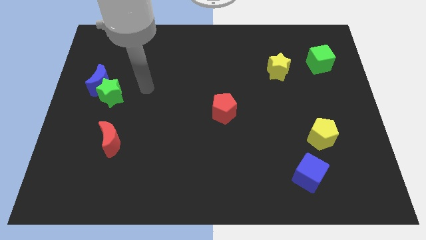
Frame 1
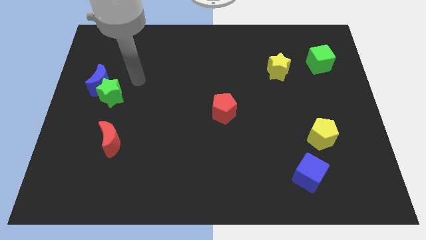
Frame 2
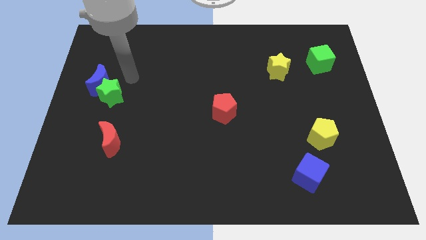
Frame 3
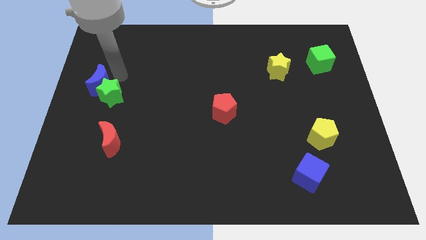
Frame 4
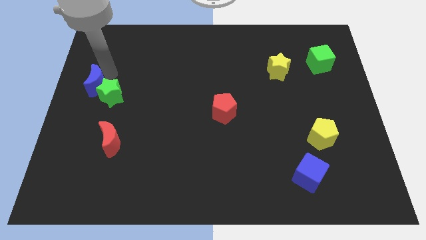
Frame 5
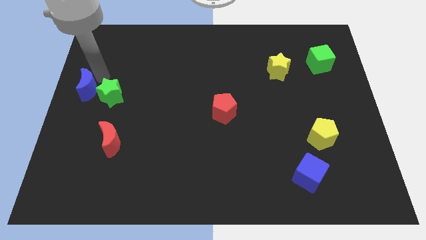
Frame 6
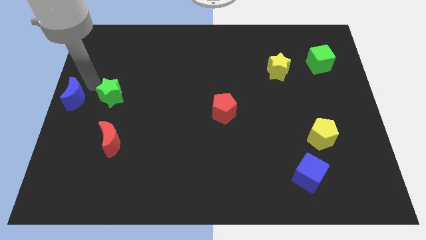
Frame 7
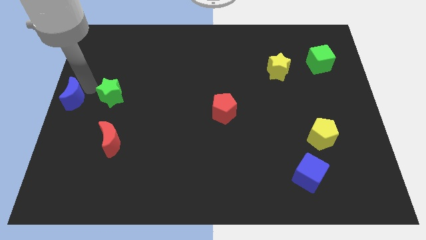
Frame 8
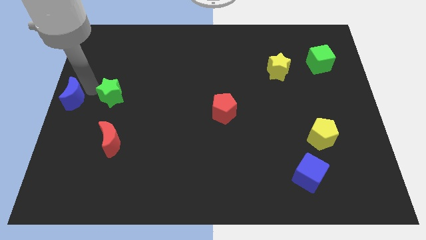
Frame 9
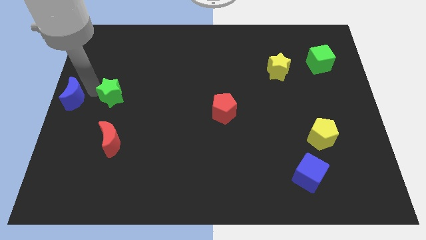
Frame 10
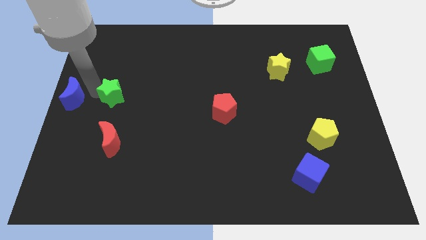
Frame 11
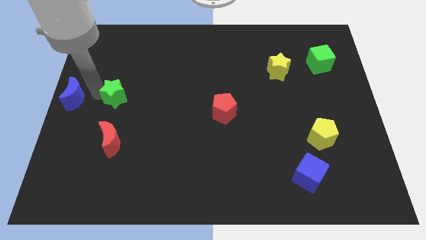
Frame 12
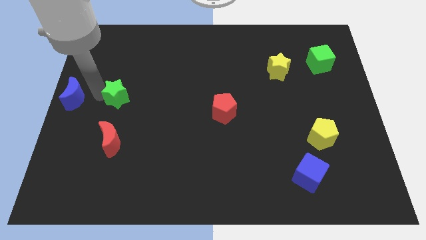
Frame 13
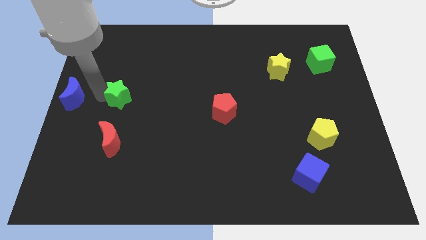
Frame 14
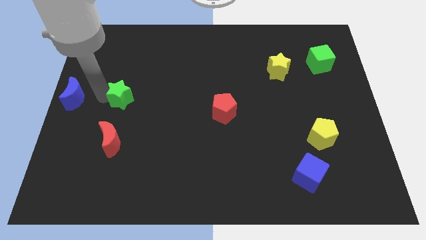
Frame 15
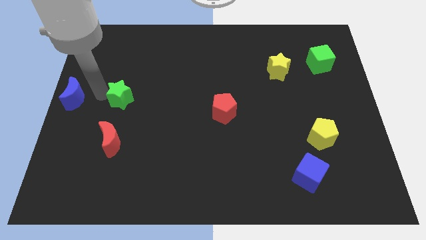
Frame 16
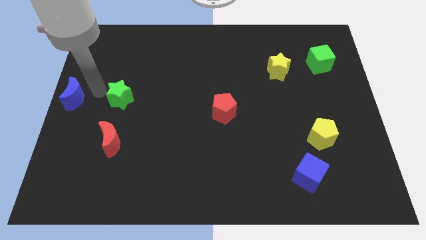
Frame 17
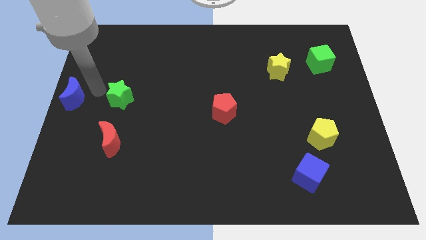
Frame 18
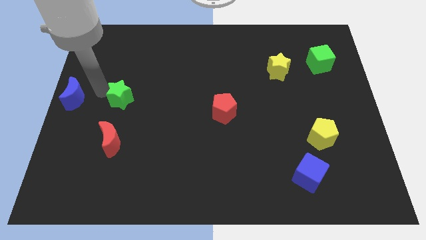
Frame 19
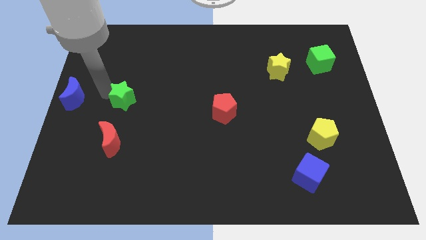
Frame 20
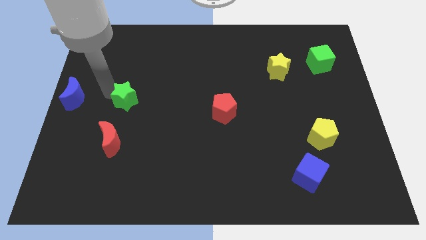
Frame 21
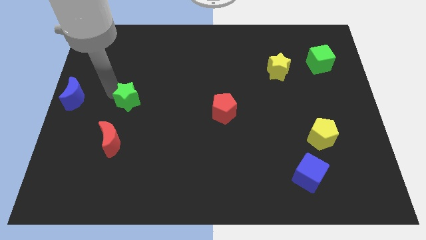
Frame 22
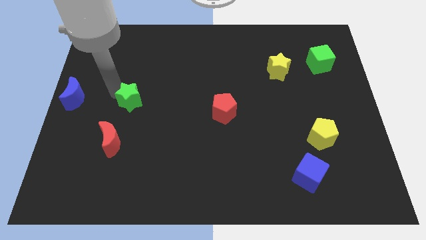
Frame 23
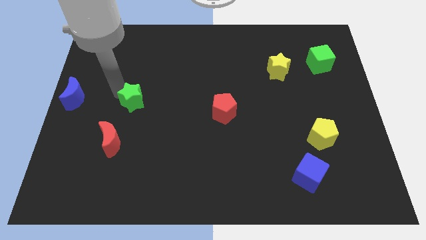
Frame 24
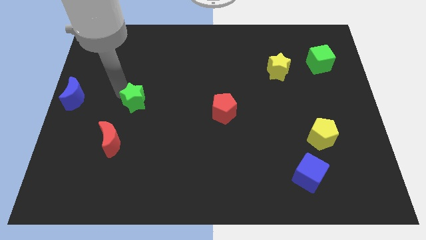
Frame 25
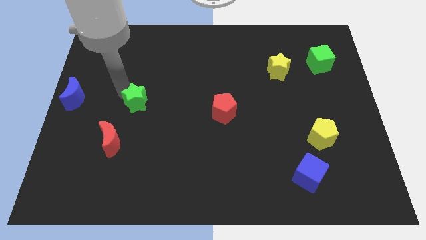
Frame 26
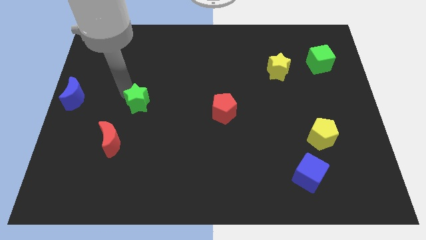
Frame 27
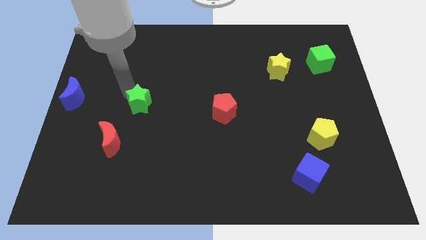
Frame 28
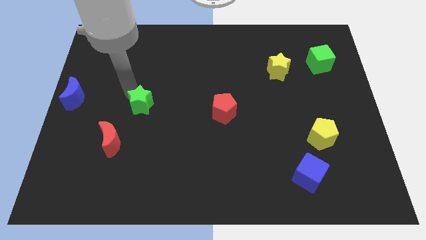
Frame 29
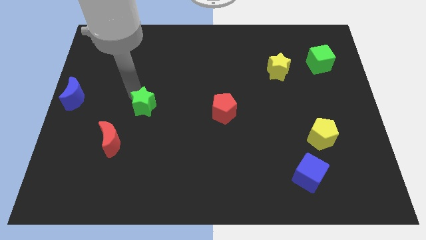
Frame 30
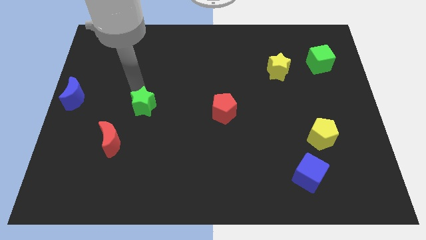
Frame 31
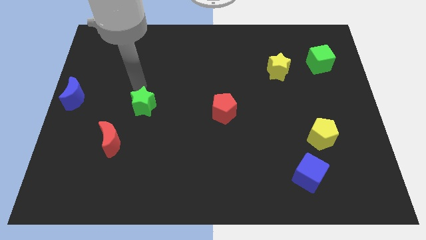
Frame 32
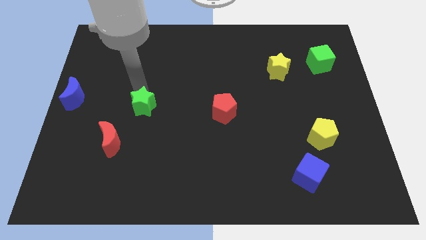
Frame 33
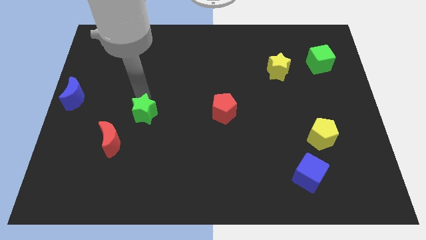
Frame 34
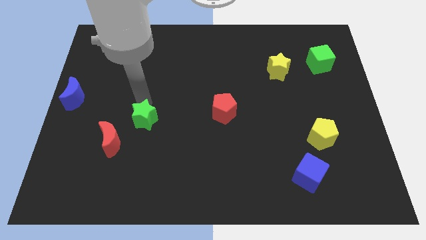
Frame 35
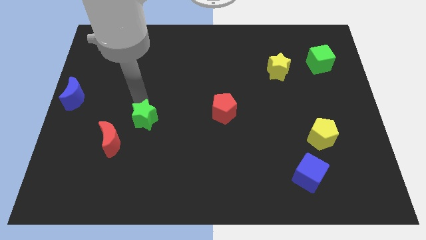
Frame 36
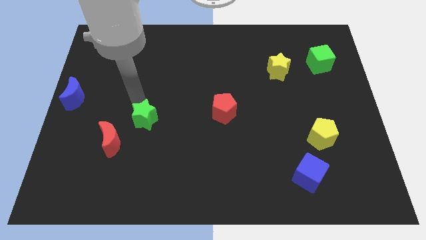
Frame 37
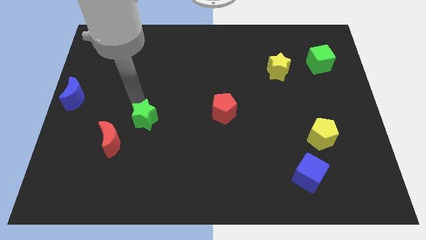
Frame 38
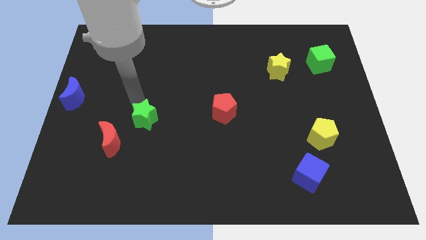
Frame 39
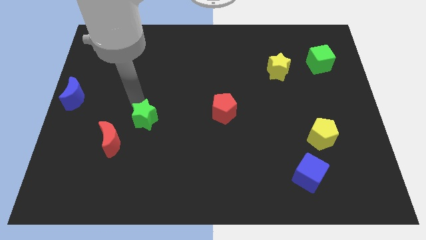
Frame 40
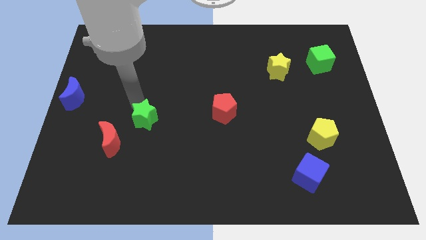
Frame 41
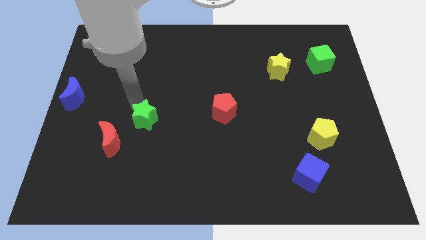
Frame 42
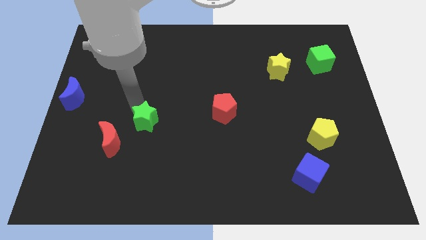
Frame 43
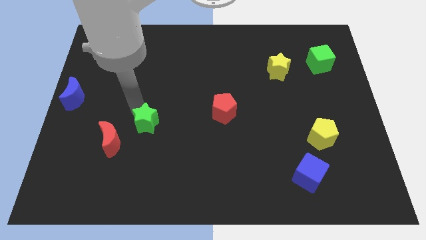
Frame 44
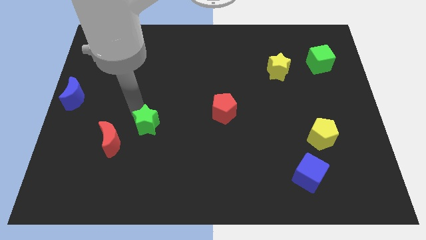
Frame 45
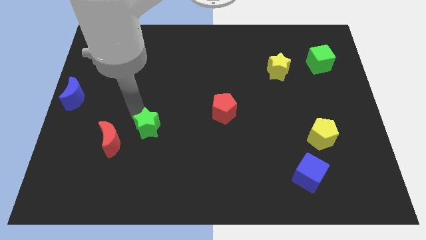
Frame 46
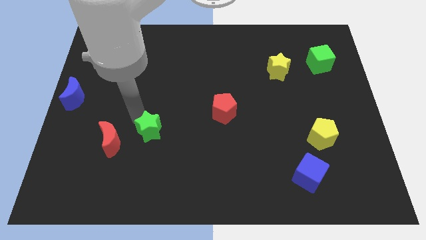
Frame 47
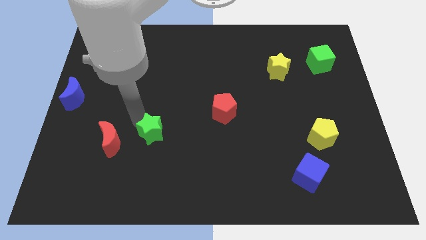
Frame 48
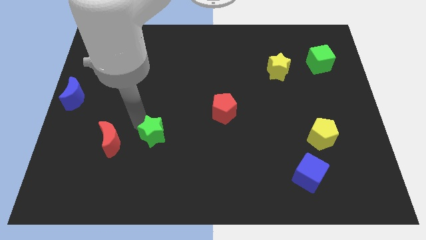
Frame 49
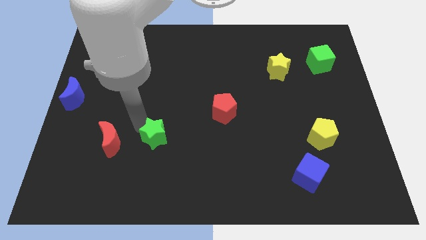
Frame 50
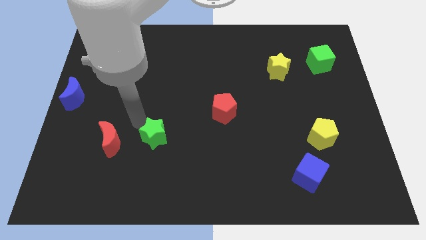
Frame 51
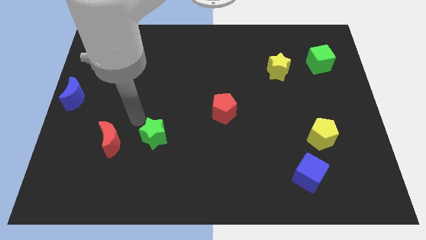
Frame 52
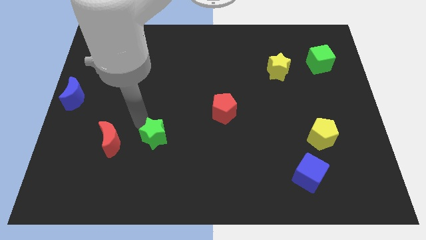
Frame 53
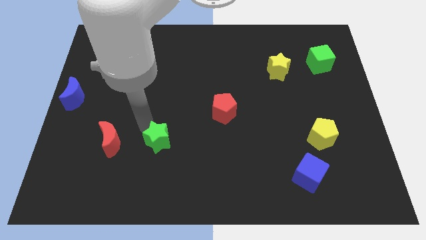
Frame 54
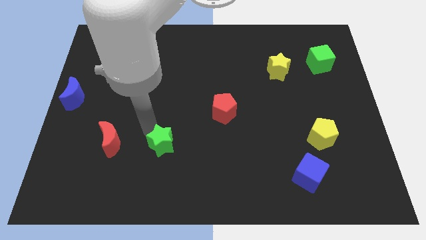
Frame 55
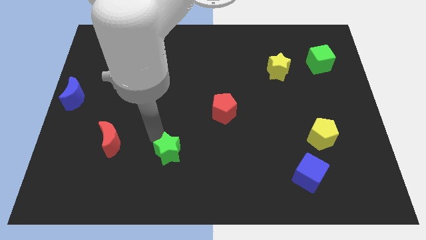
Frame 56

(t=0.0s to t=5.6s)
move the green star down and to the right

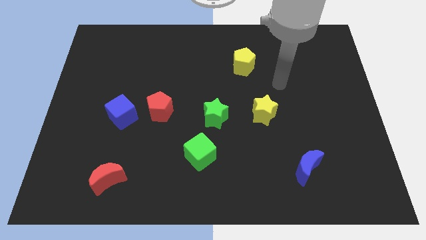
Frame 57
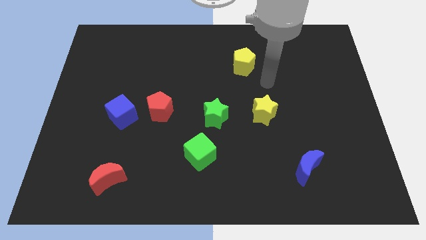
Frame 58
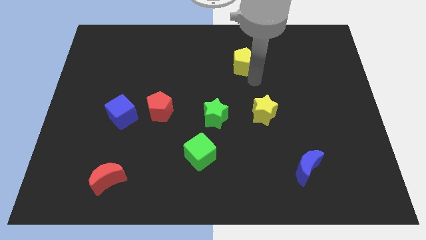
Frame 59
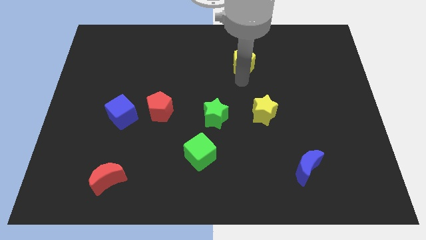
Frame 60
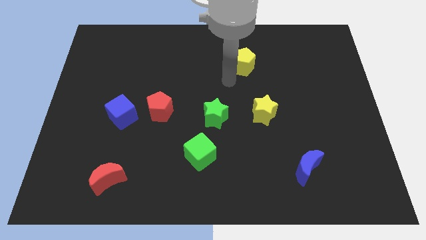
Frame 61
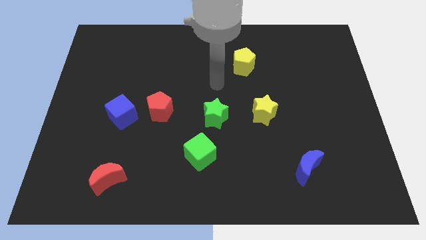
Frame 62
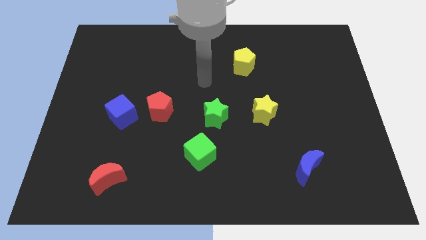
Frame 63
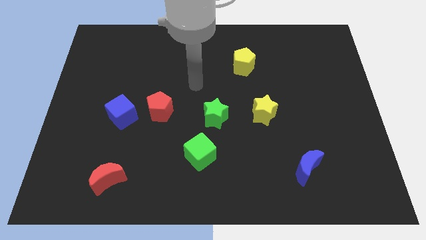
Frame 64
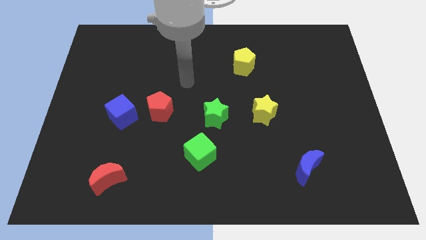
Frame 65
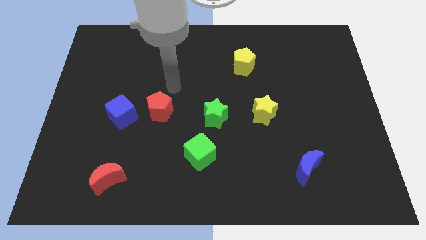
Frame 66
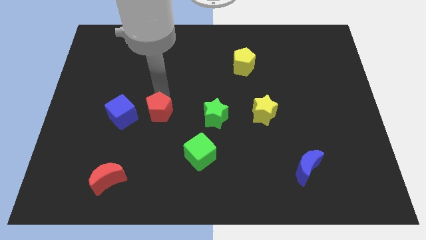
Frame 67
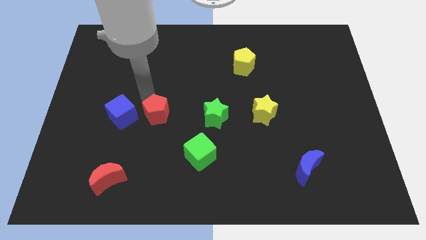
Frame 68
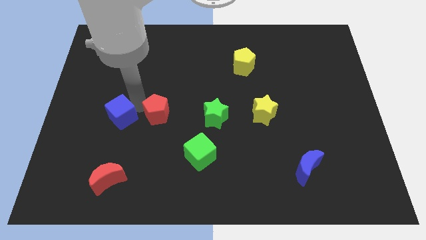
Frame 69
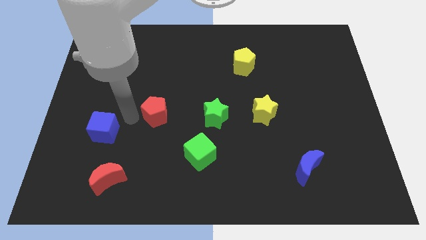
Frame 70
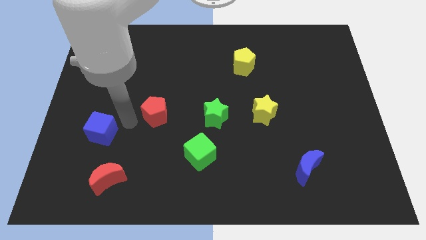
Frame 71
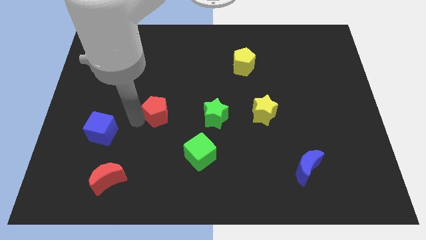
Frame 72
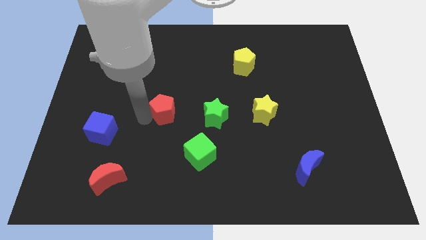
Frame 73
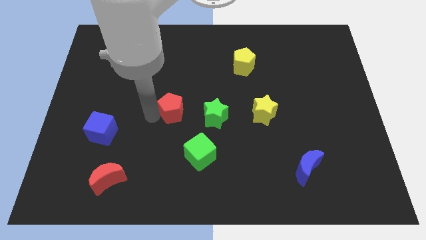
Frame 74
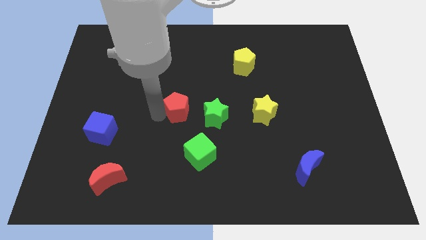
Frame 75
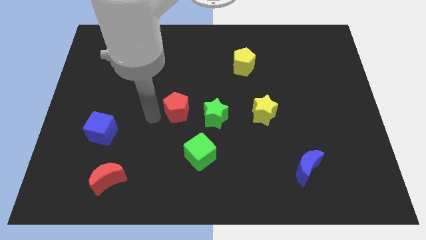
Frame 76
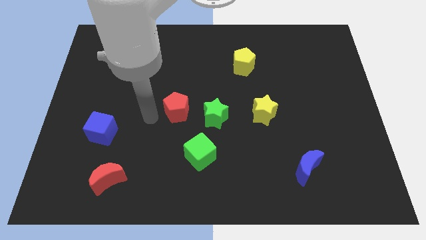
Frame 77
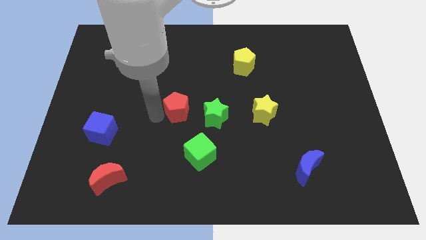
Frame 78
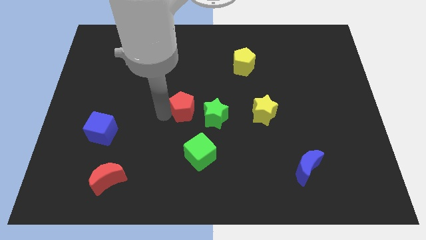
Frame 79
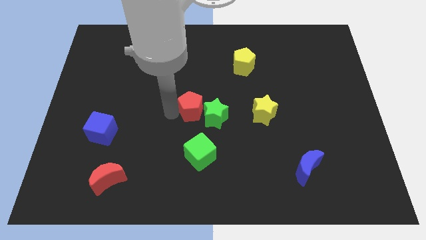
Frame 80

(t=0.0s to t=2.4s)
slide the red pentagon right slightly
